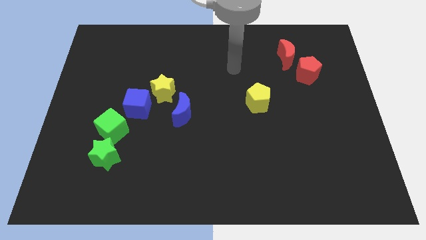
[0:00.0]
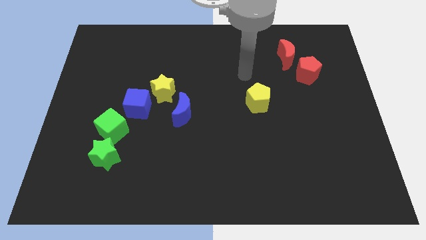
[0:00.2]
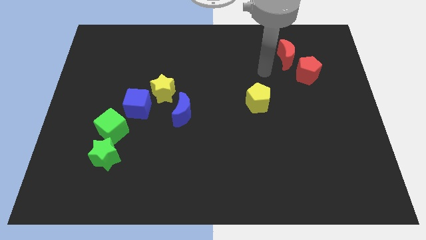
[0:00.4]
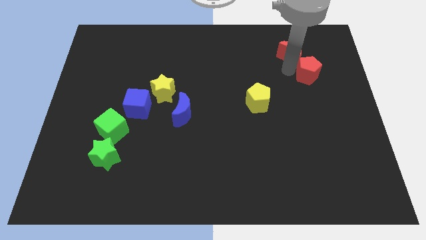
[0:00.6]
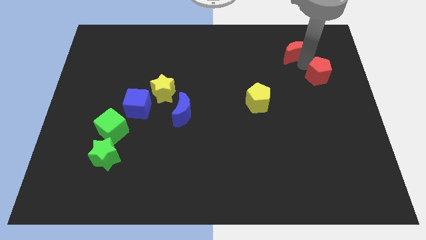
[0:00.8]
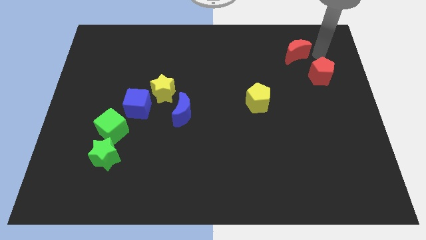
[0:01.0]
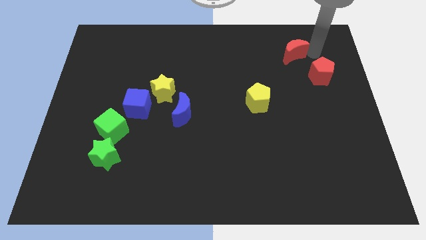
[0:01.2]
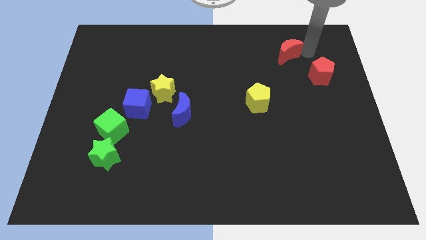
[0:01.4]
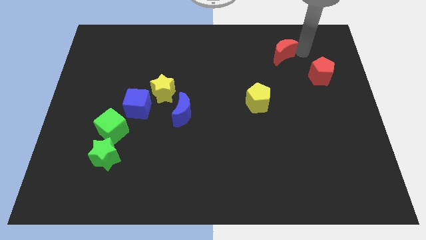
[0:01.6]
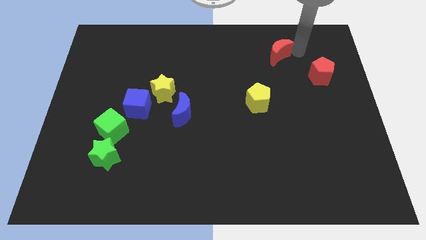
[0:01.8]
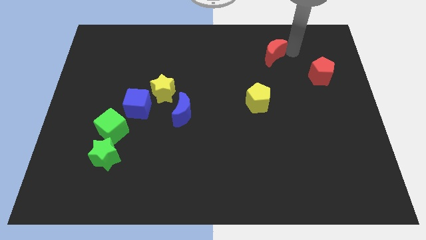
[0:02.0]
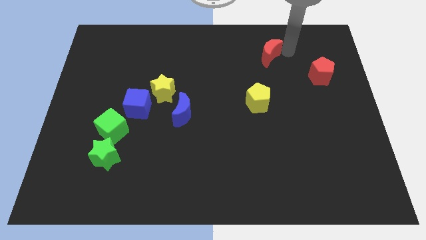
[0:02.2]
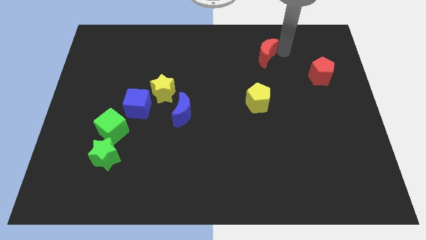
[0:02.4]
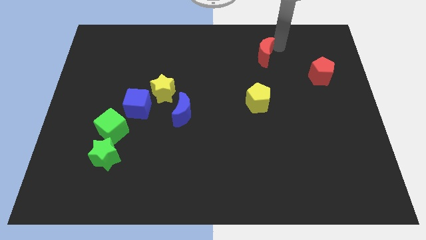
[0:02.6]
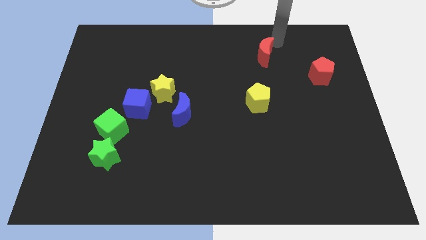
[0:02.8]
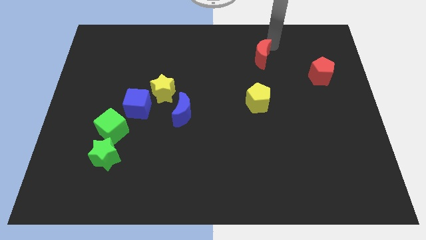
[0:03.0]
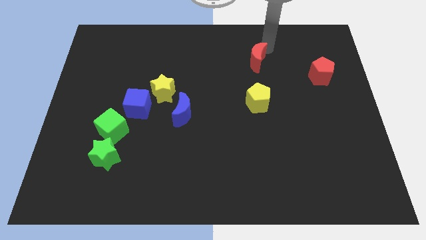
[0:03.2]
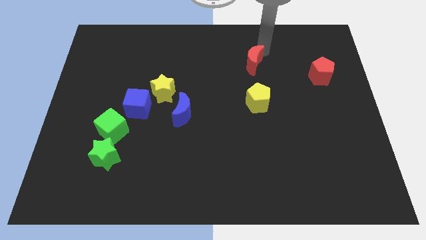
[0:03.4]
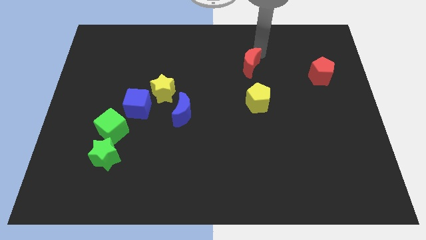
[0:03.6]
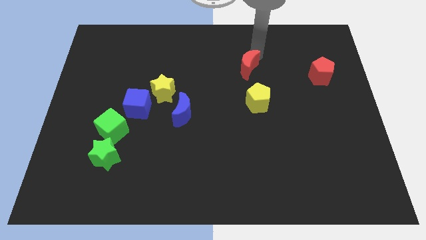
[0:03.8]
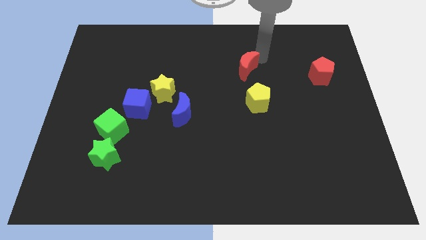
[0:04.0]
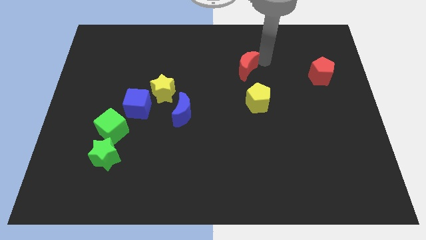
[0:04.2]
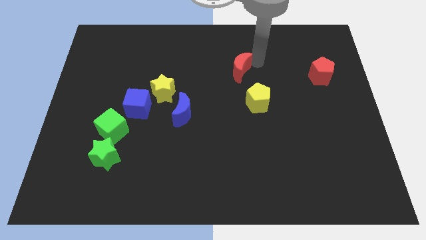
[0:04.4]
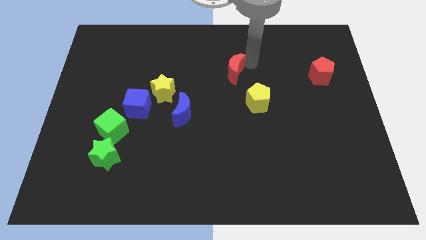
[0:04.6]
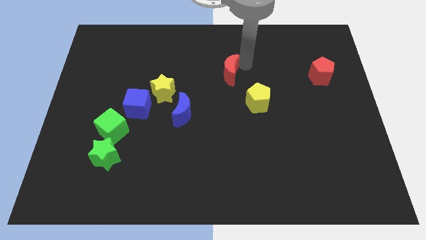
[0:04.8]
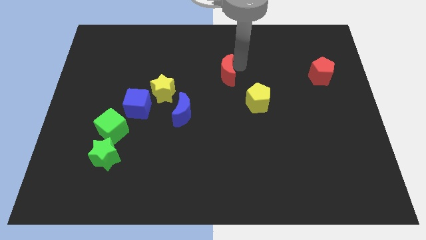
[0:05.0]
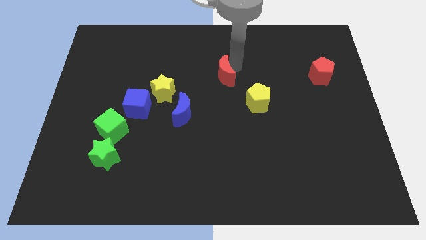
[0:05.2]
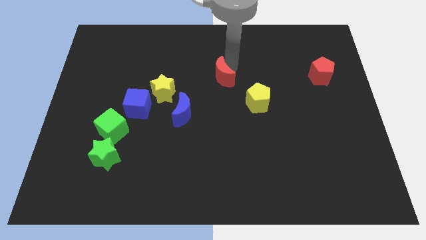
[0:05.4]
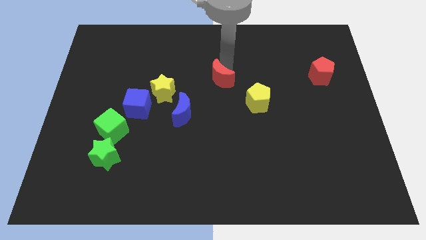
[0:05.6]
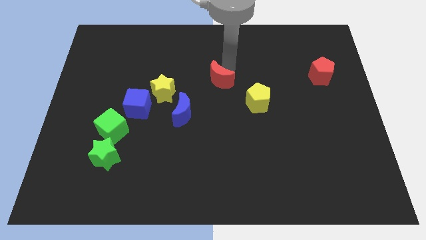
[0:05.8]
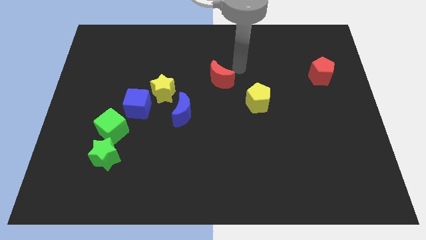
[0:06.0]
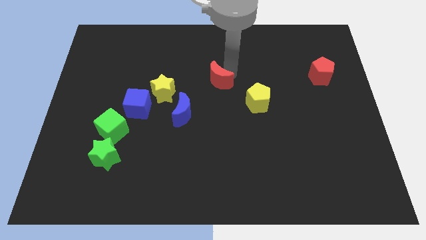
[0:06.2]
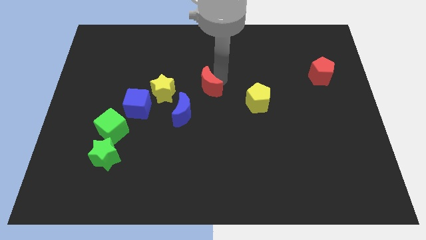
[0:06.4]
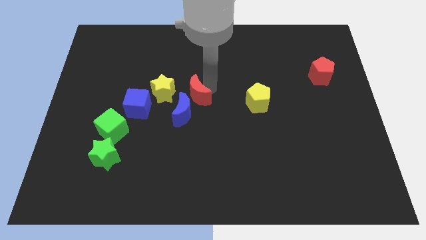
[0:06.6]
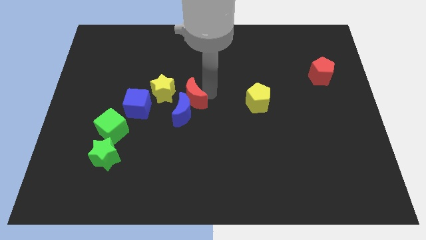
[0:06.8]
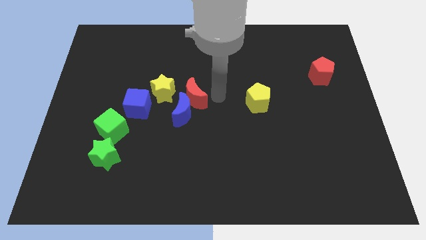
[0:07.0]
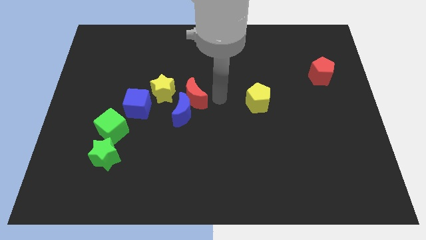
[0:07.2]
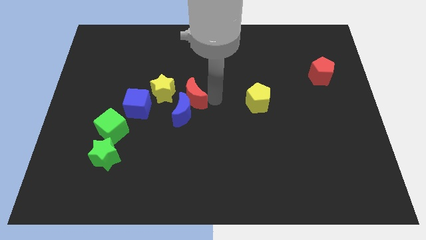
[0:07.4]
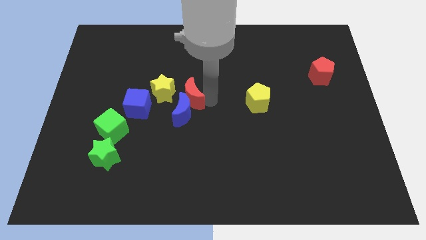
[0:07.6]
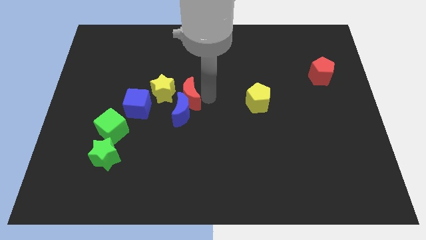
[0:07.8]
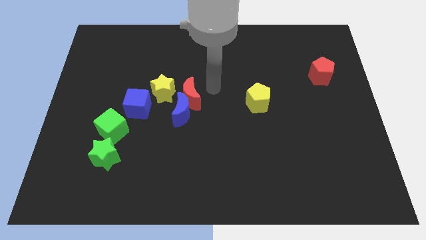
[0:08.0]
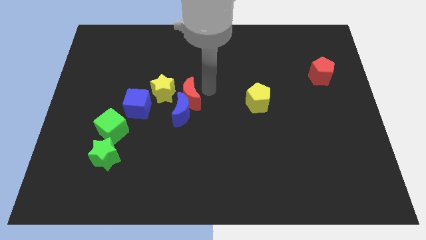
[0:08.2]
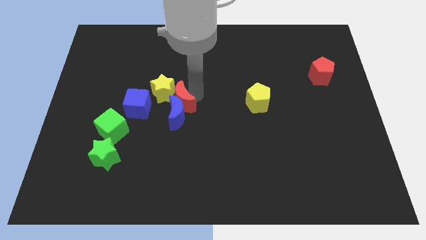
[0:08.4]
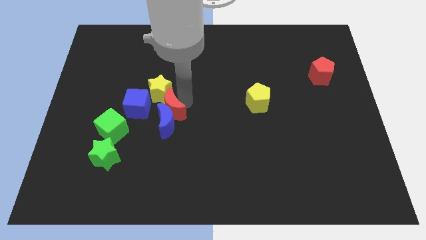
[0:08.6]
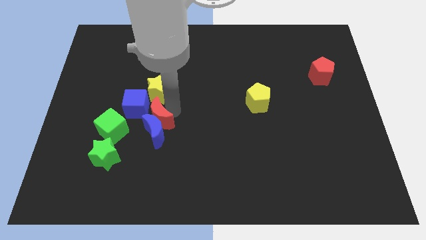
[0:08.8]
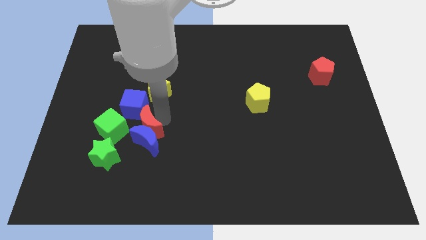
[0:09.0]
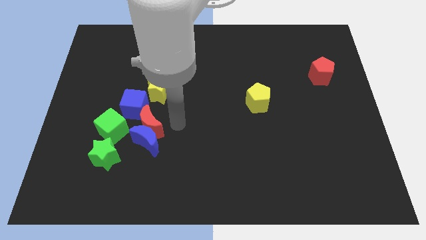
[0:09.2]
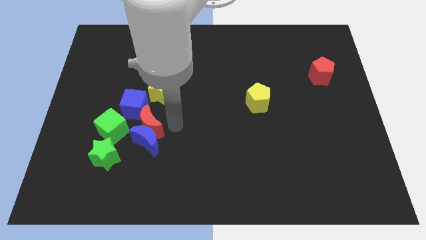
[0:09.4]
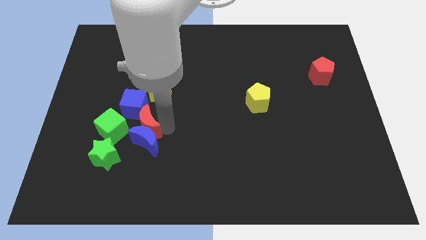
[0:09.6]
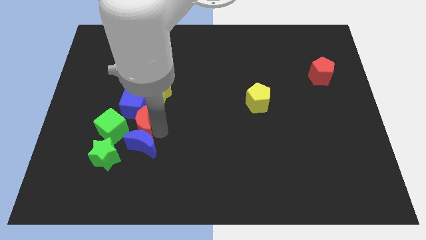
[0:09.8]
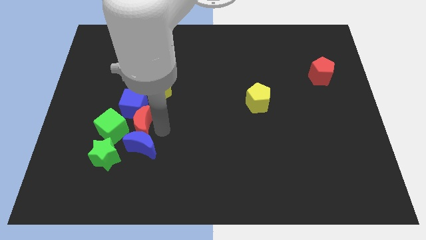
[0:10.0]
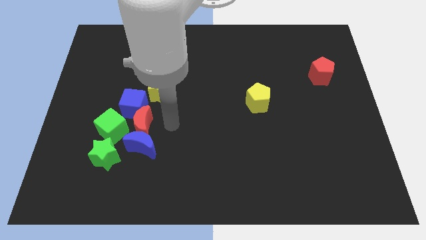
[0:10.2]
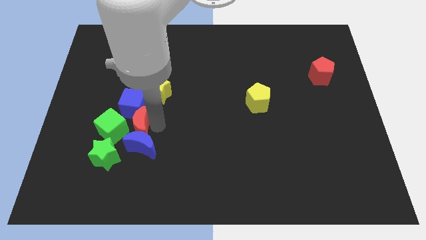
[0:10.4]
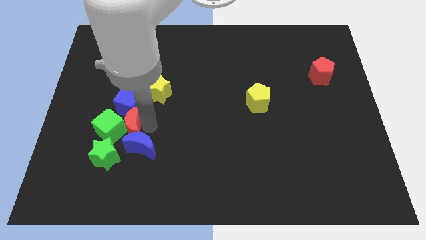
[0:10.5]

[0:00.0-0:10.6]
push the red moon to the green cube

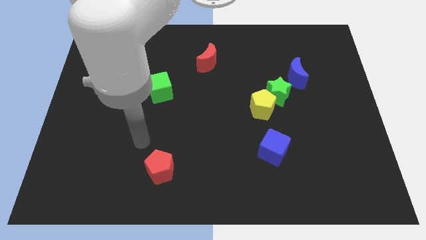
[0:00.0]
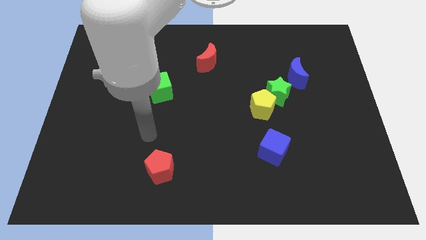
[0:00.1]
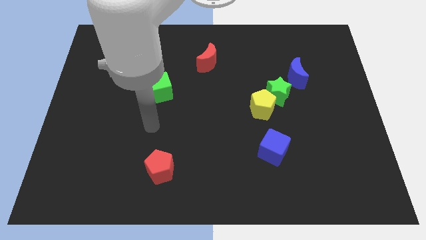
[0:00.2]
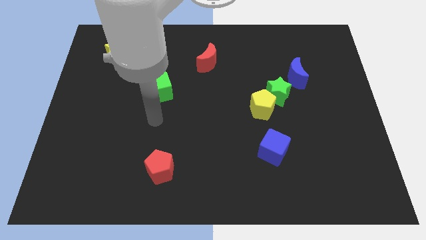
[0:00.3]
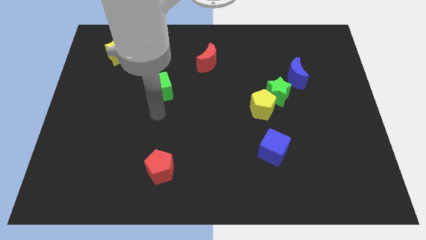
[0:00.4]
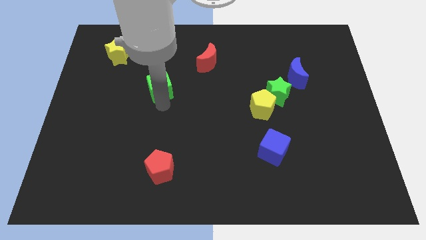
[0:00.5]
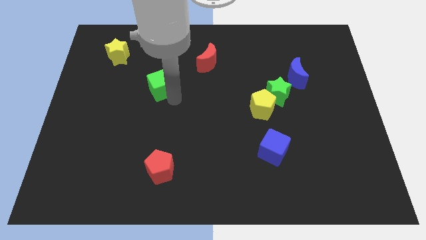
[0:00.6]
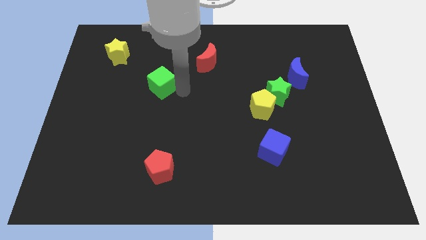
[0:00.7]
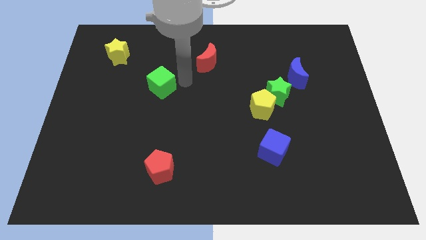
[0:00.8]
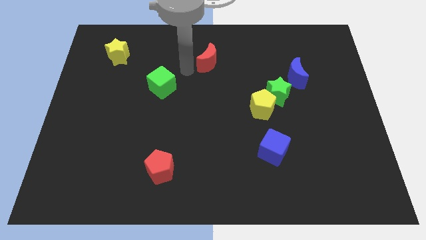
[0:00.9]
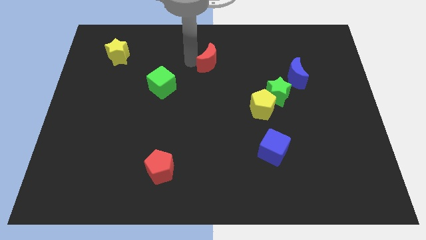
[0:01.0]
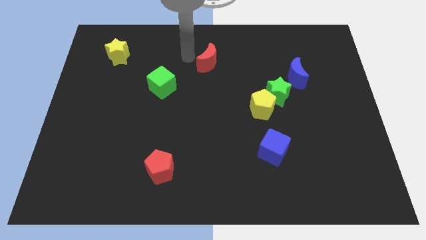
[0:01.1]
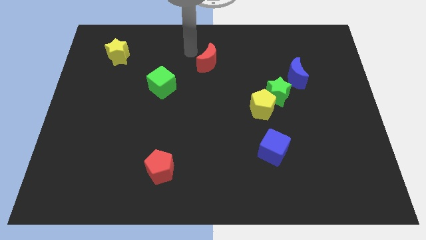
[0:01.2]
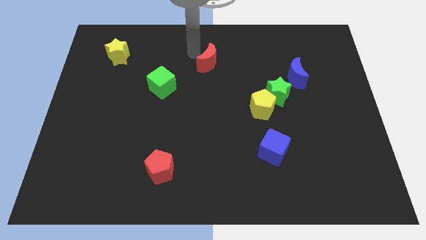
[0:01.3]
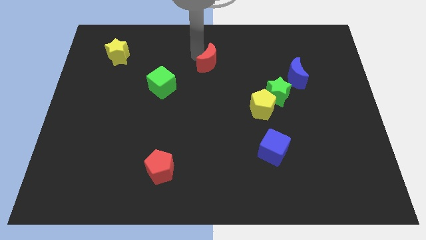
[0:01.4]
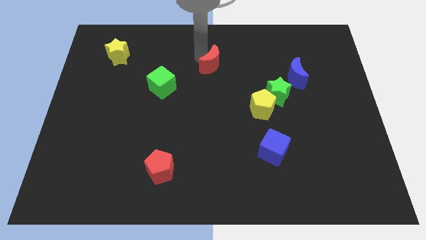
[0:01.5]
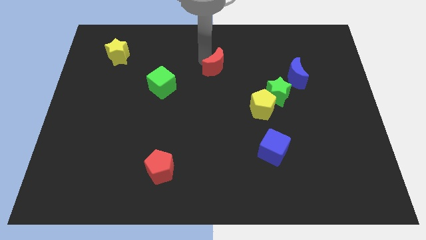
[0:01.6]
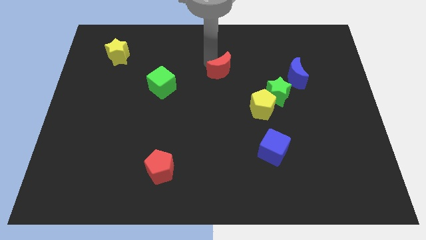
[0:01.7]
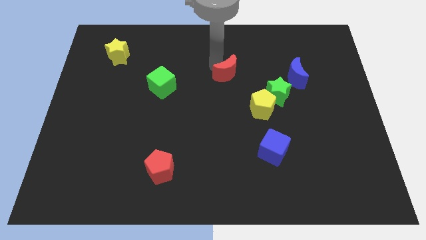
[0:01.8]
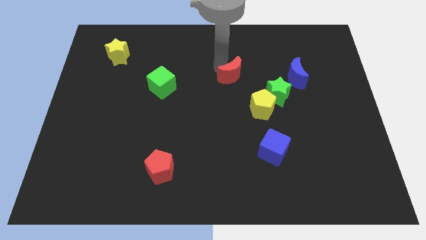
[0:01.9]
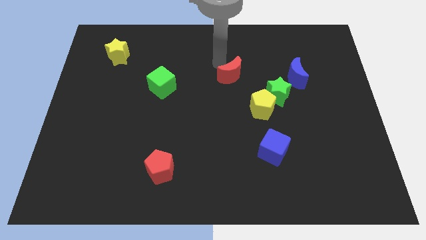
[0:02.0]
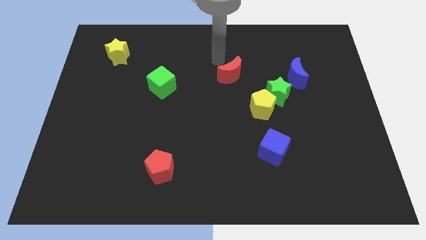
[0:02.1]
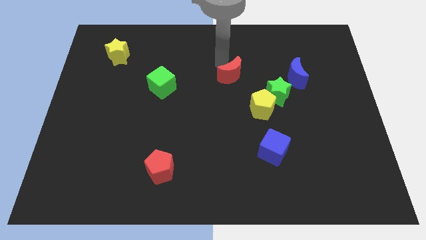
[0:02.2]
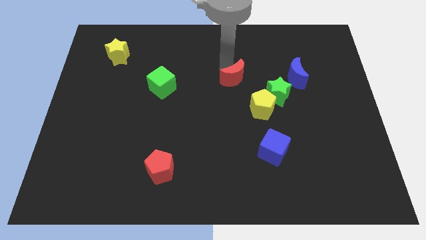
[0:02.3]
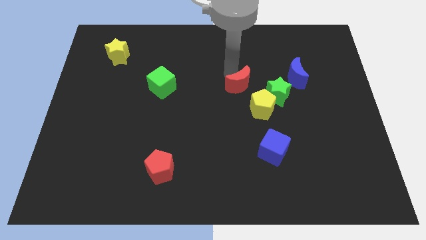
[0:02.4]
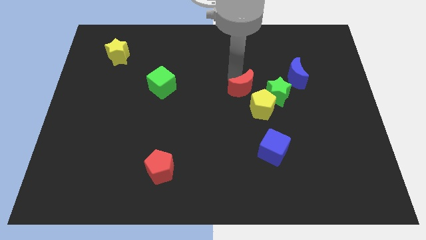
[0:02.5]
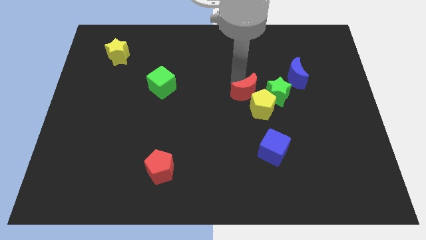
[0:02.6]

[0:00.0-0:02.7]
move the red moon to the yellow pentagon
